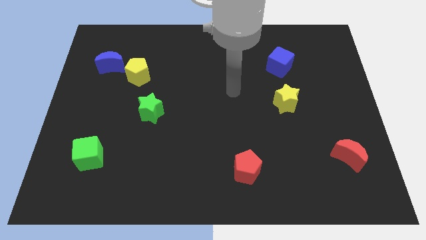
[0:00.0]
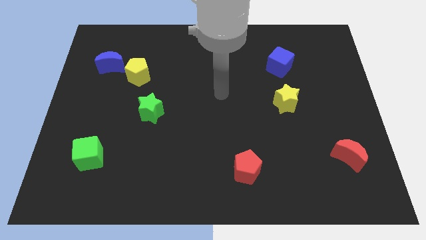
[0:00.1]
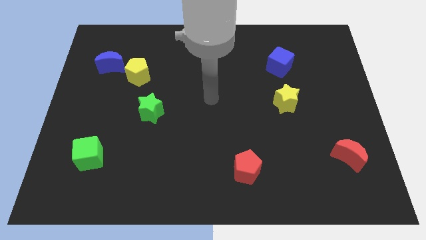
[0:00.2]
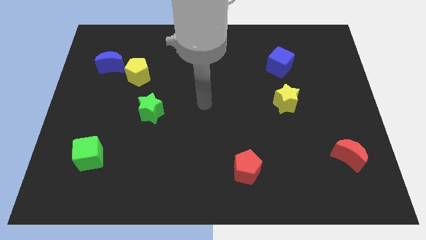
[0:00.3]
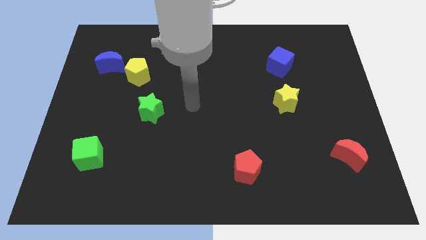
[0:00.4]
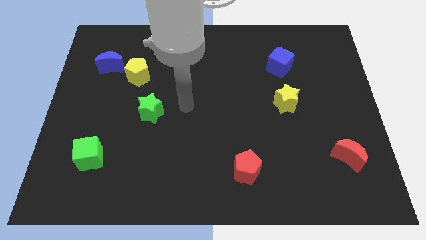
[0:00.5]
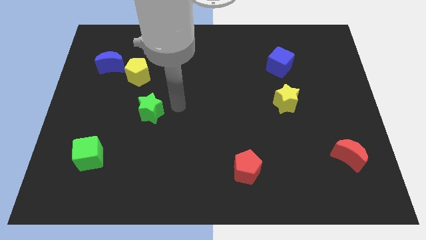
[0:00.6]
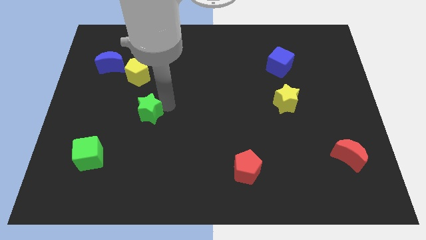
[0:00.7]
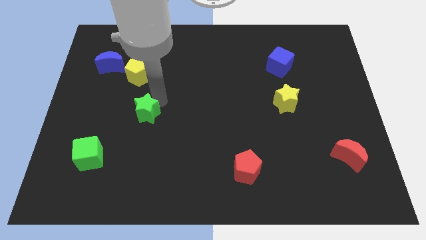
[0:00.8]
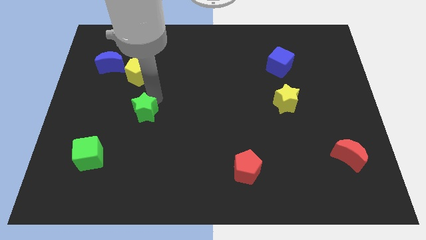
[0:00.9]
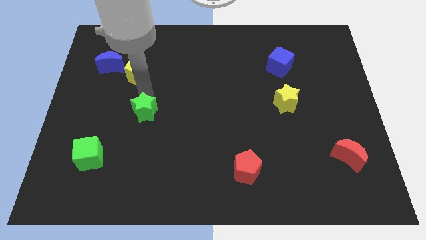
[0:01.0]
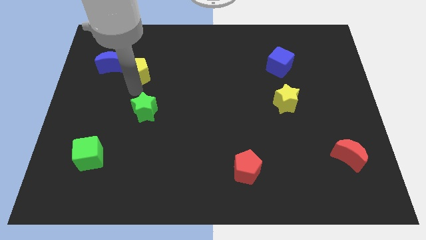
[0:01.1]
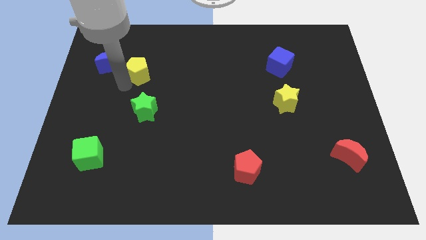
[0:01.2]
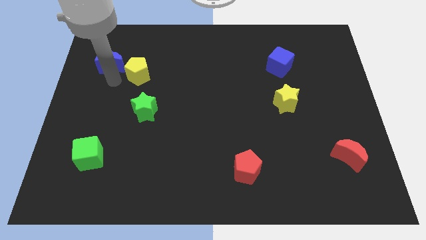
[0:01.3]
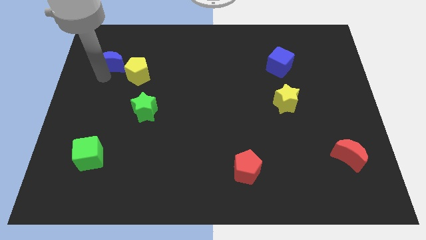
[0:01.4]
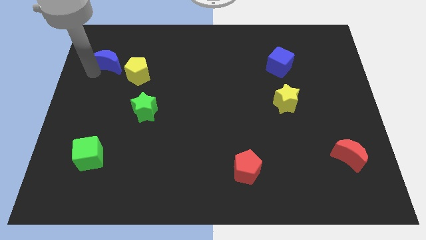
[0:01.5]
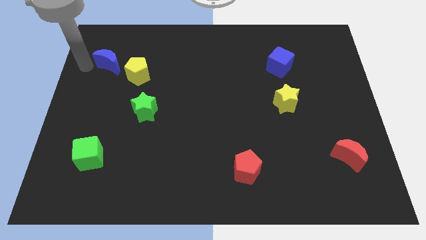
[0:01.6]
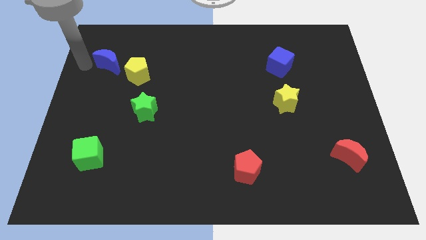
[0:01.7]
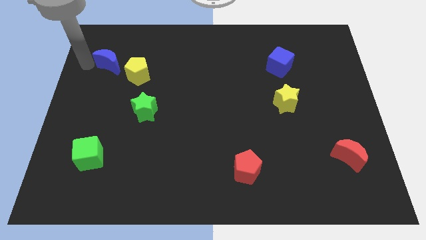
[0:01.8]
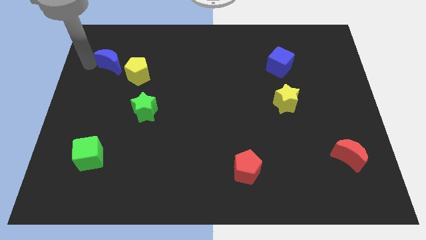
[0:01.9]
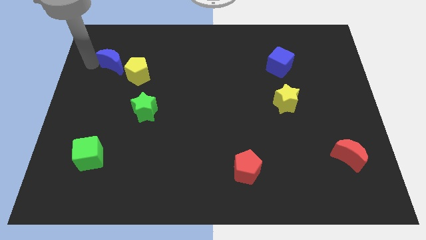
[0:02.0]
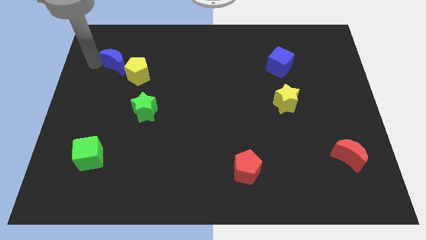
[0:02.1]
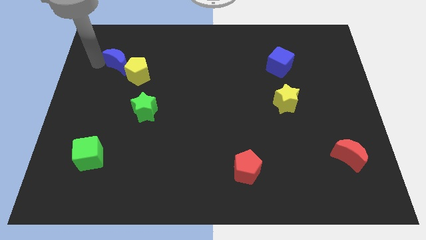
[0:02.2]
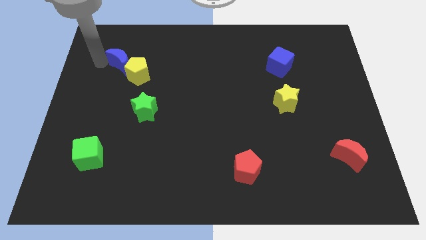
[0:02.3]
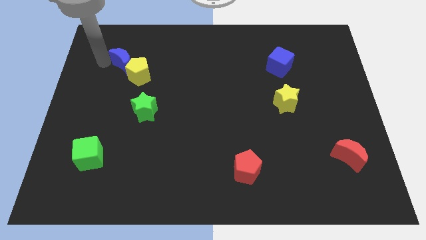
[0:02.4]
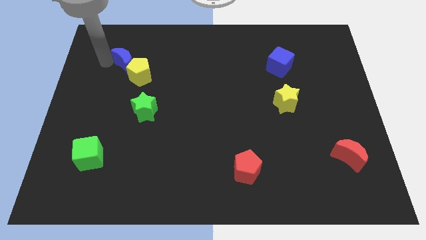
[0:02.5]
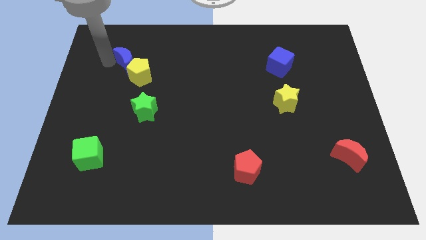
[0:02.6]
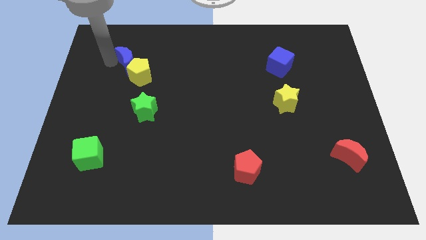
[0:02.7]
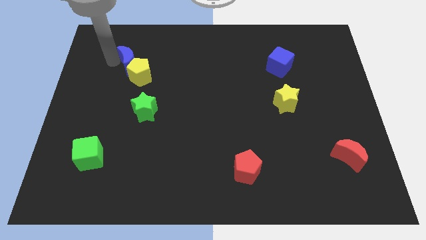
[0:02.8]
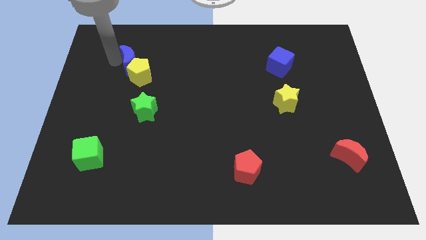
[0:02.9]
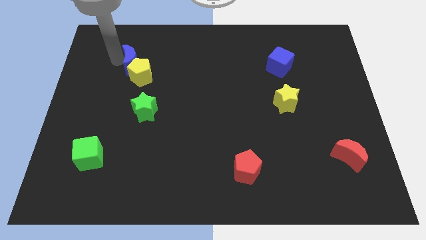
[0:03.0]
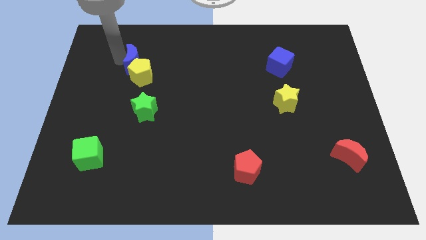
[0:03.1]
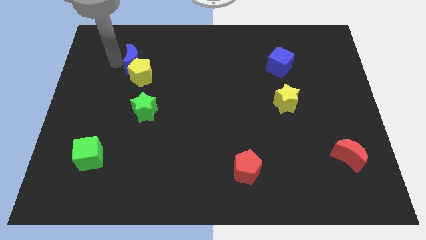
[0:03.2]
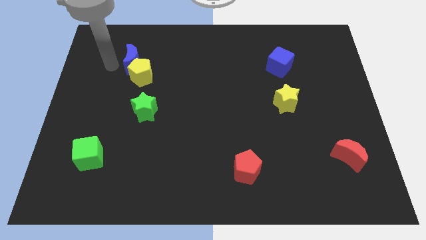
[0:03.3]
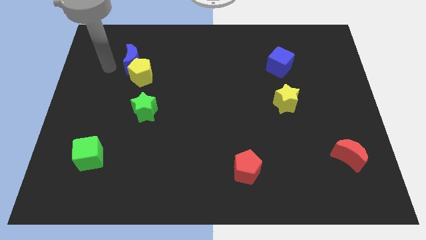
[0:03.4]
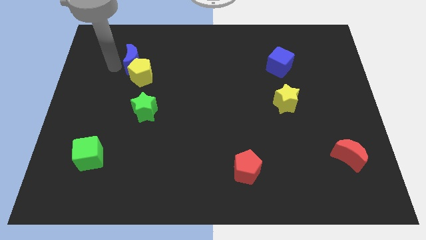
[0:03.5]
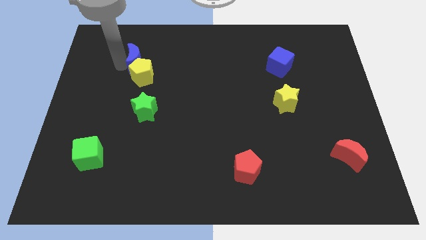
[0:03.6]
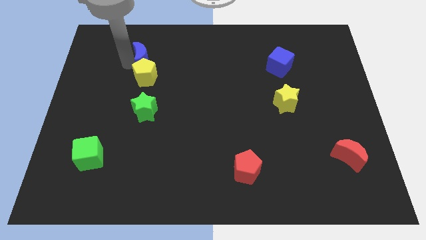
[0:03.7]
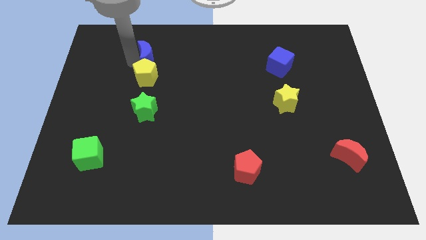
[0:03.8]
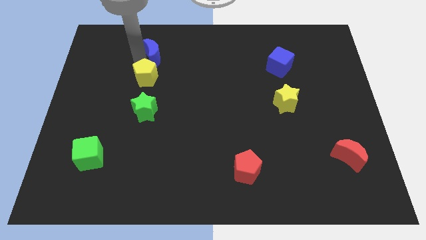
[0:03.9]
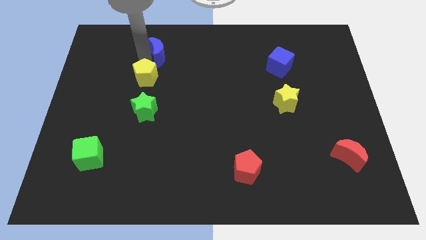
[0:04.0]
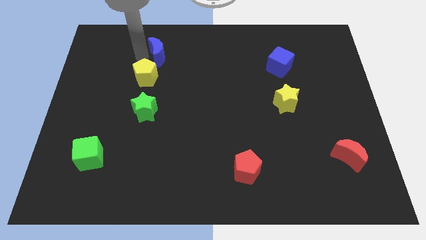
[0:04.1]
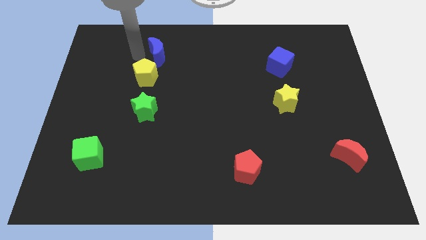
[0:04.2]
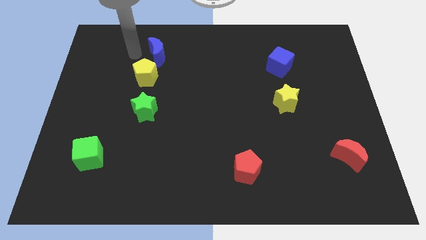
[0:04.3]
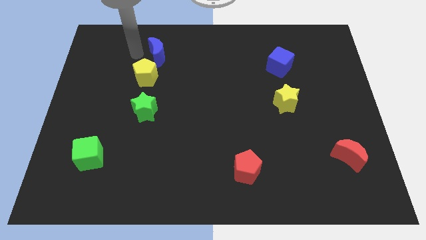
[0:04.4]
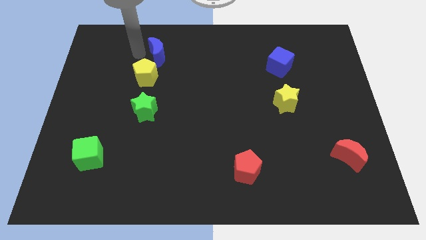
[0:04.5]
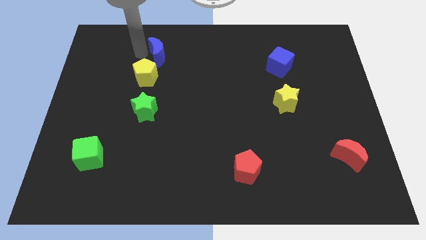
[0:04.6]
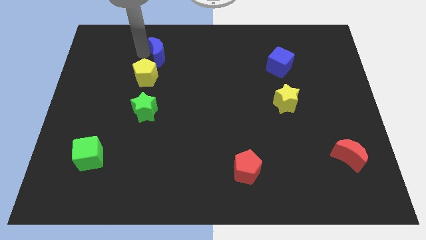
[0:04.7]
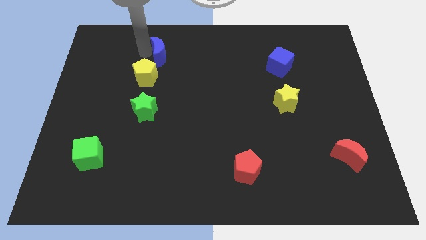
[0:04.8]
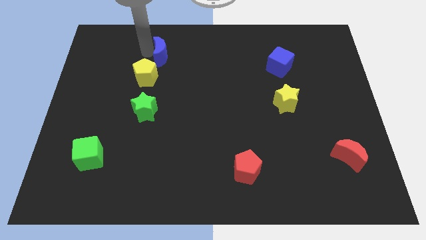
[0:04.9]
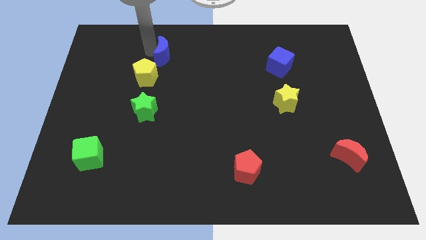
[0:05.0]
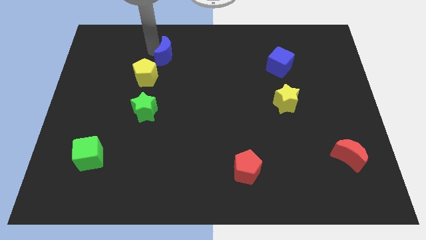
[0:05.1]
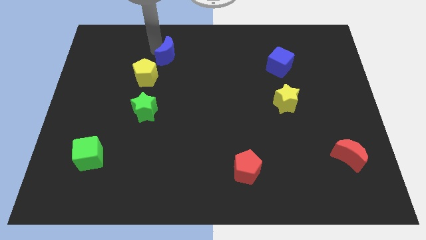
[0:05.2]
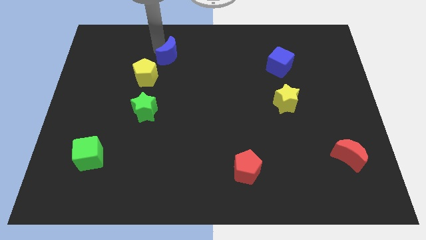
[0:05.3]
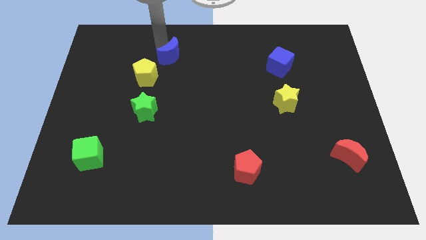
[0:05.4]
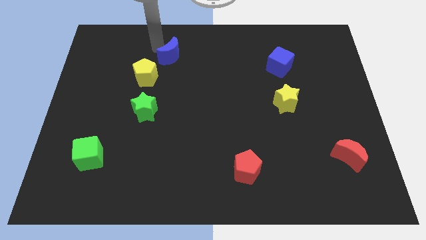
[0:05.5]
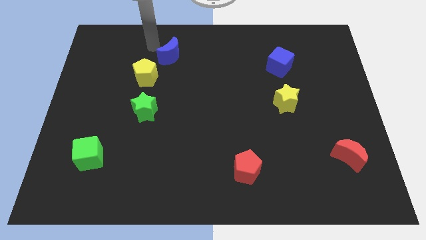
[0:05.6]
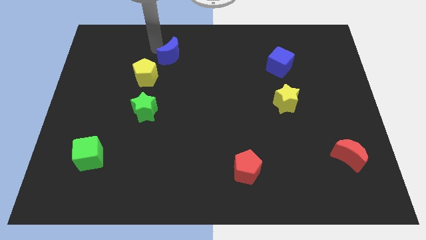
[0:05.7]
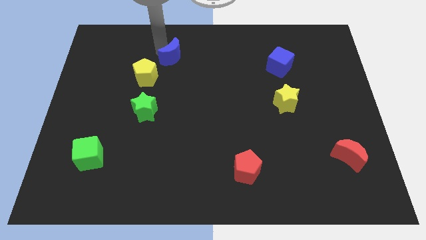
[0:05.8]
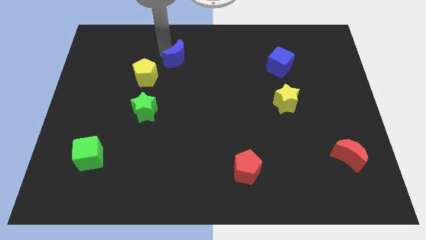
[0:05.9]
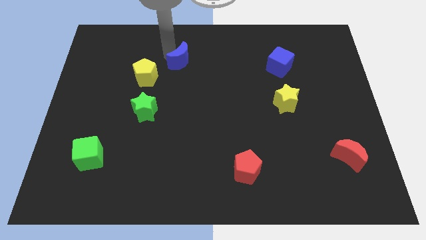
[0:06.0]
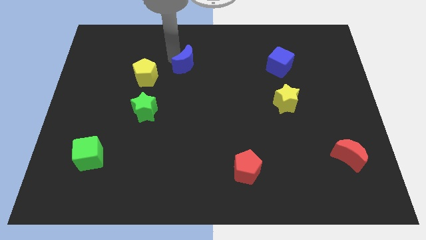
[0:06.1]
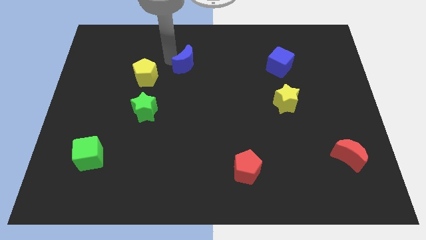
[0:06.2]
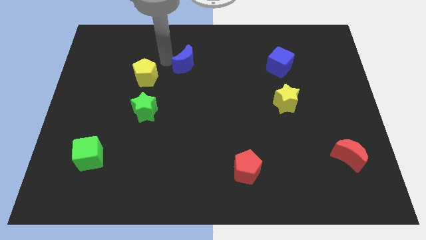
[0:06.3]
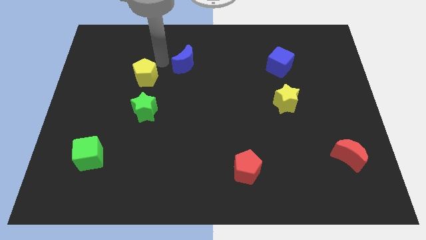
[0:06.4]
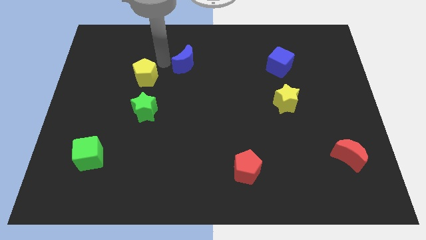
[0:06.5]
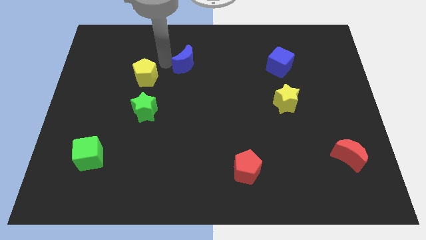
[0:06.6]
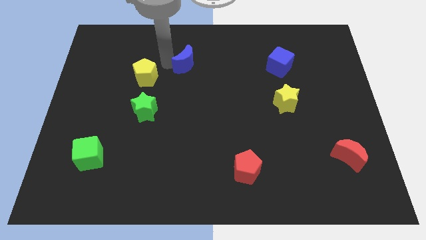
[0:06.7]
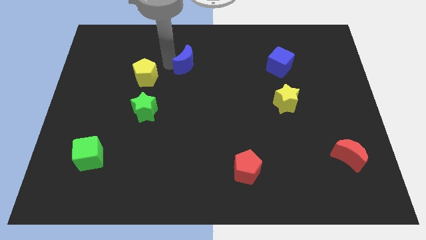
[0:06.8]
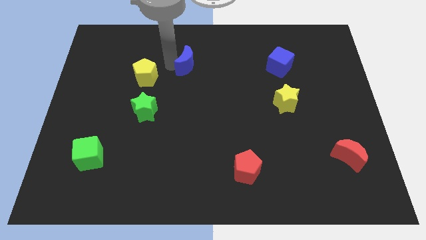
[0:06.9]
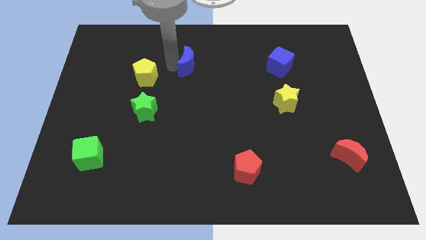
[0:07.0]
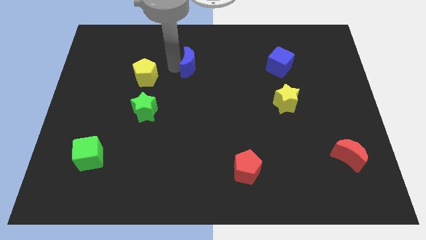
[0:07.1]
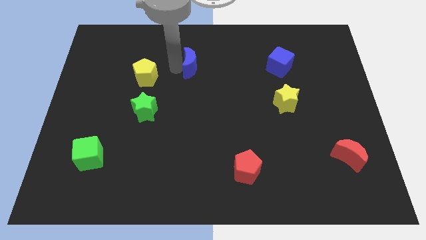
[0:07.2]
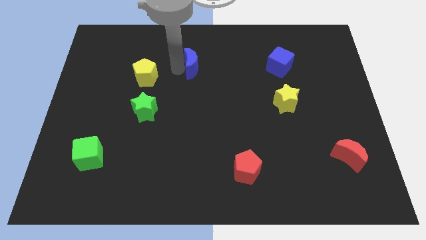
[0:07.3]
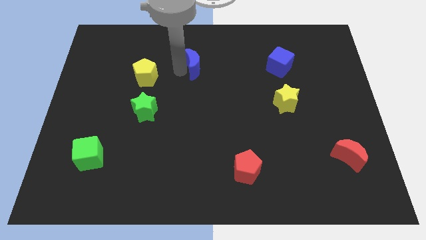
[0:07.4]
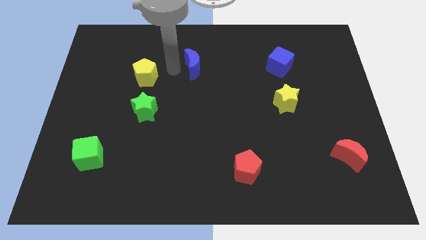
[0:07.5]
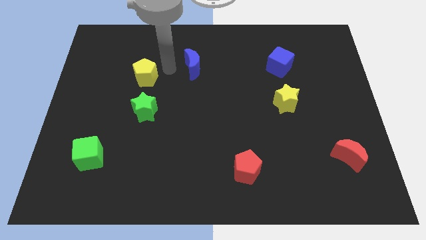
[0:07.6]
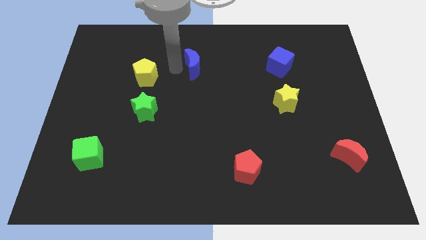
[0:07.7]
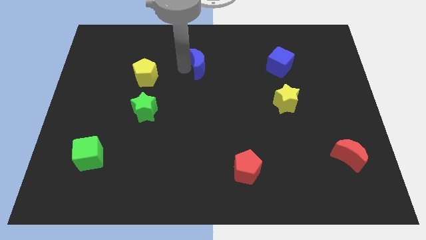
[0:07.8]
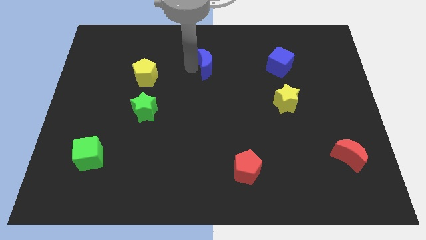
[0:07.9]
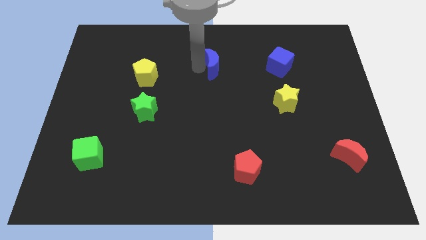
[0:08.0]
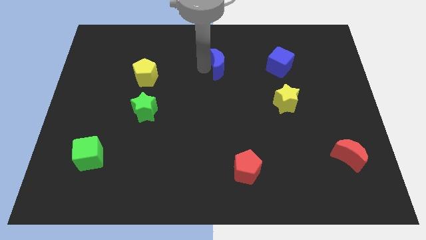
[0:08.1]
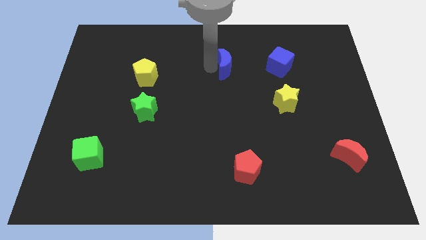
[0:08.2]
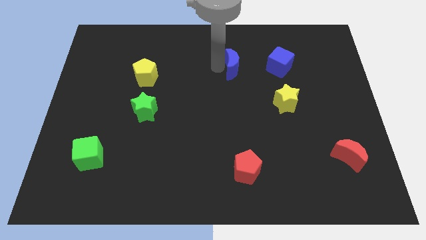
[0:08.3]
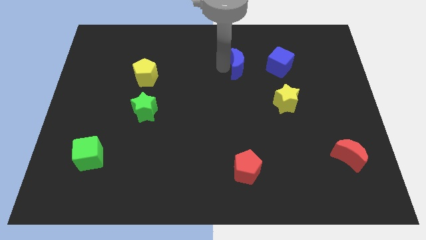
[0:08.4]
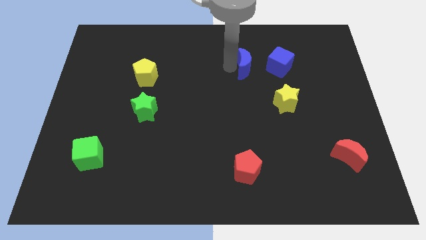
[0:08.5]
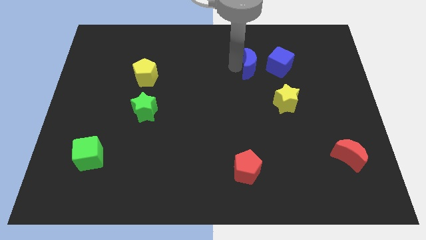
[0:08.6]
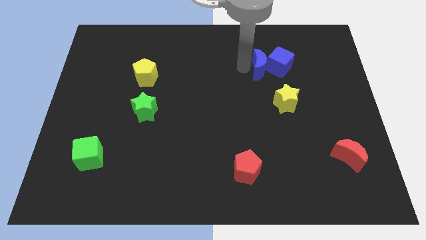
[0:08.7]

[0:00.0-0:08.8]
move the blue moon close to the blue cube
